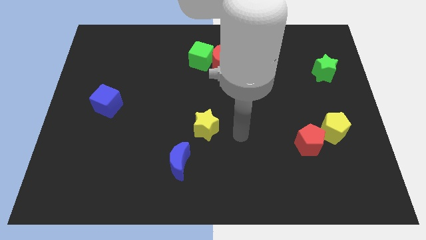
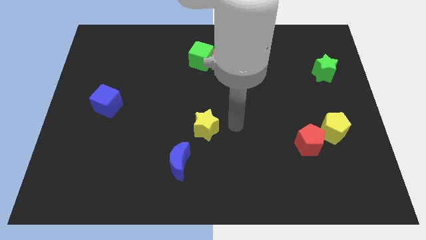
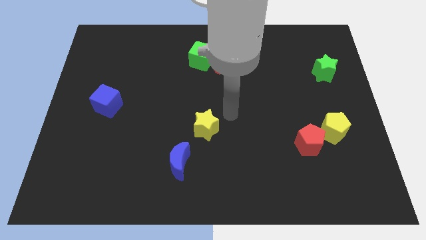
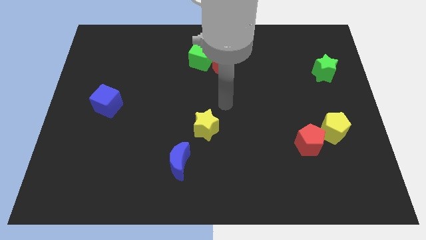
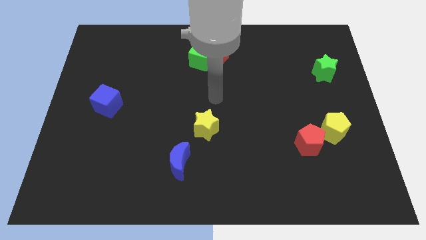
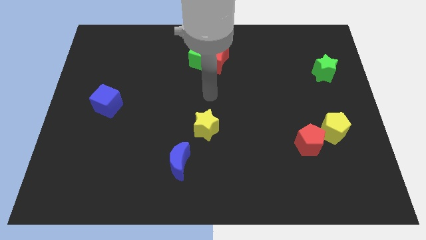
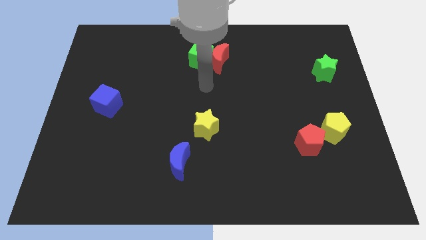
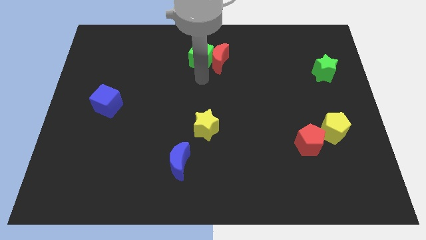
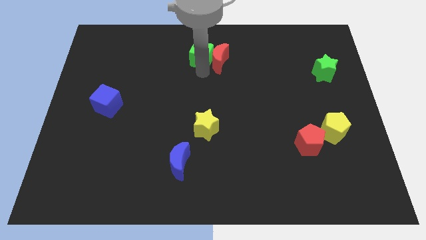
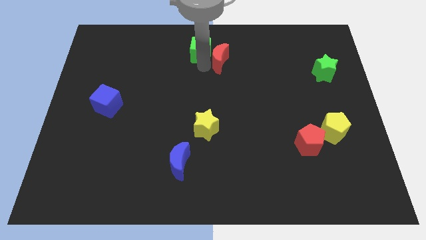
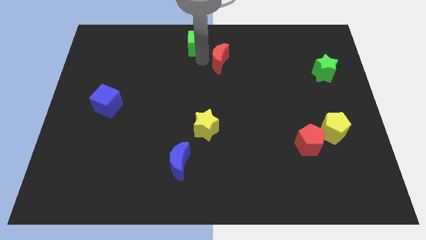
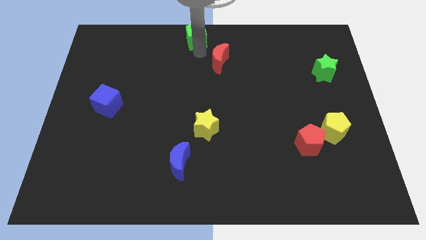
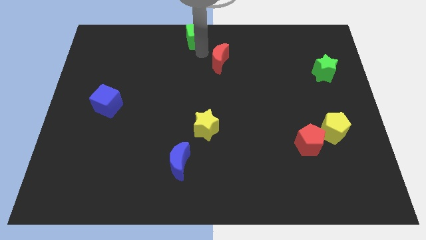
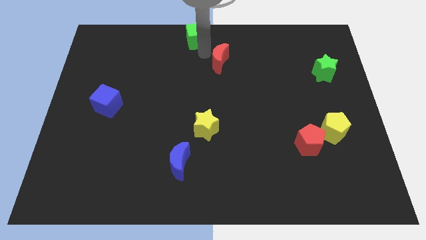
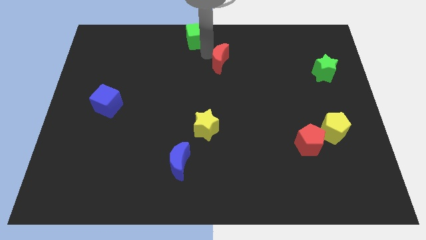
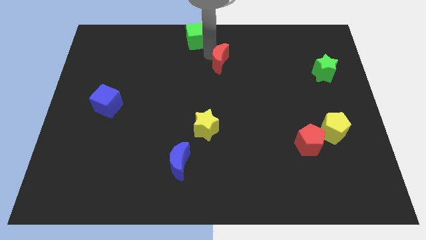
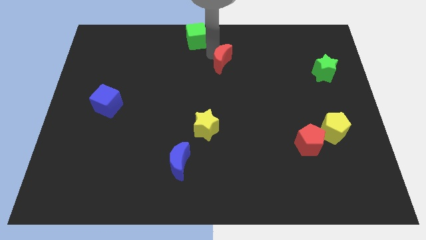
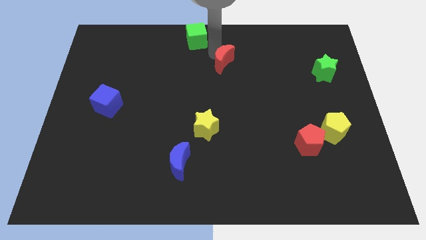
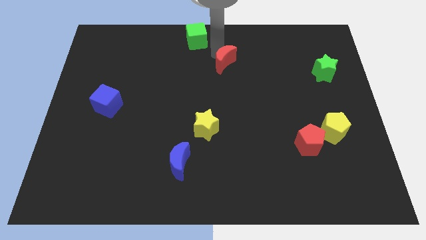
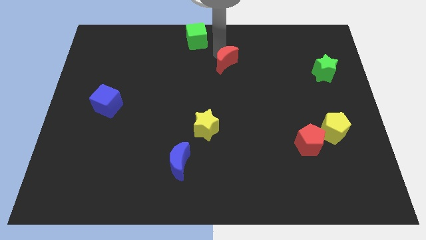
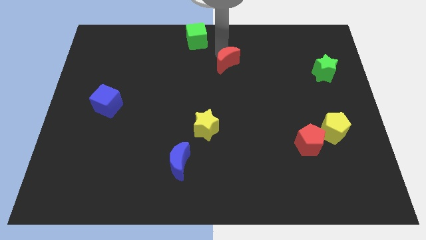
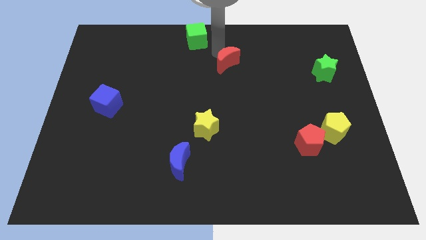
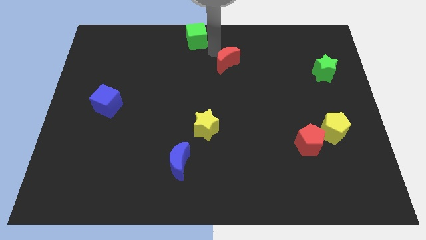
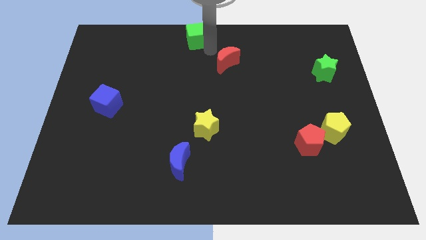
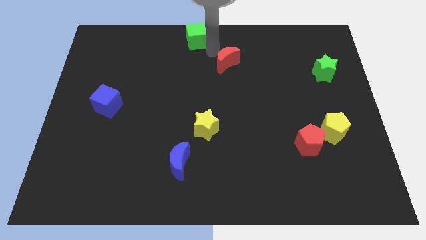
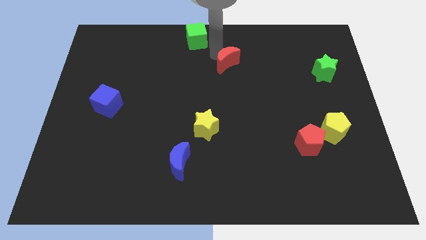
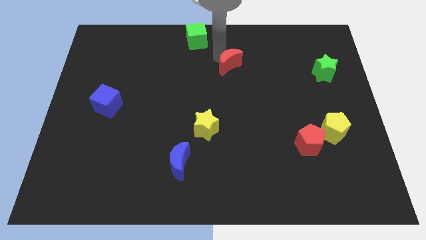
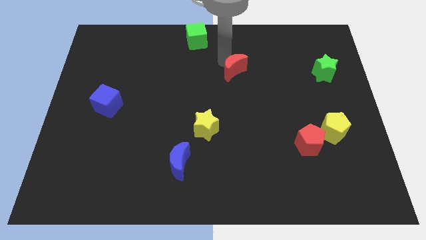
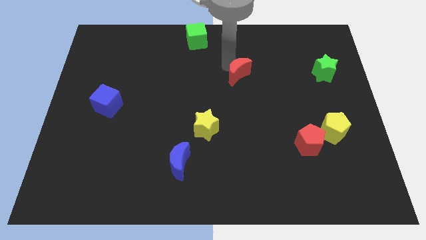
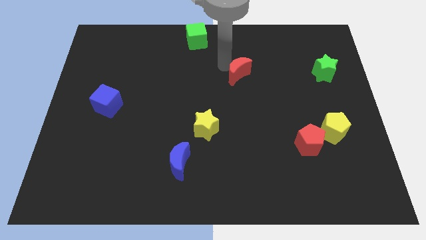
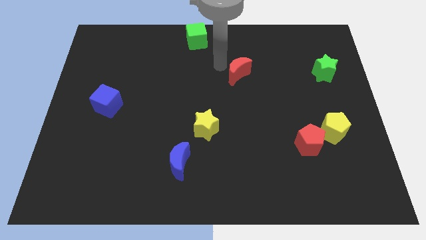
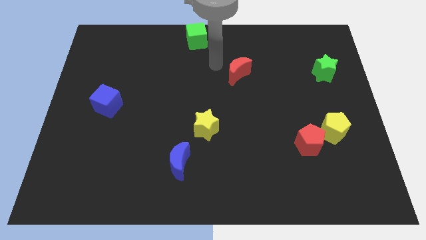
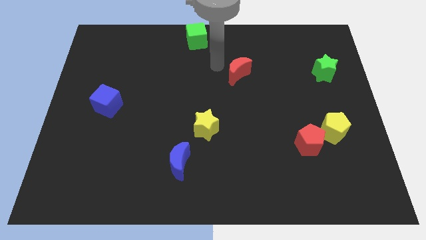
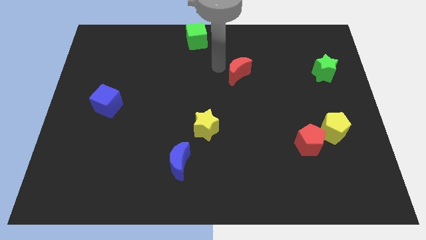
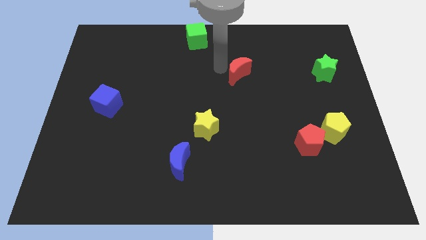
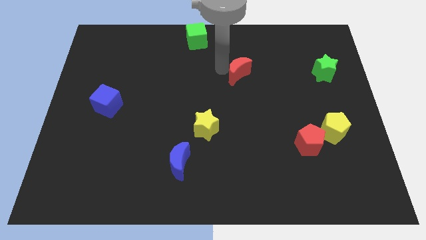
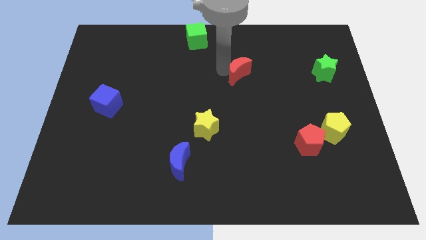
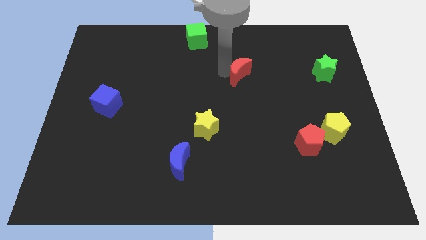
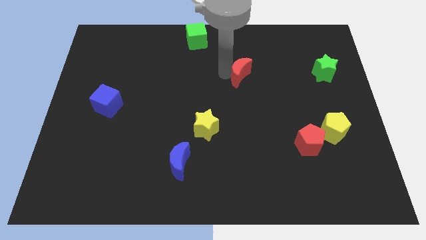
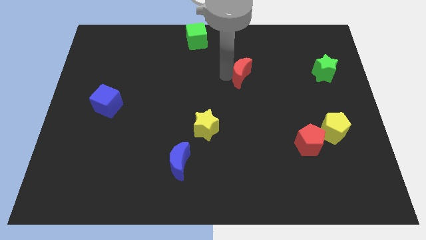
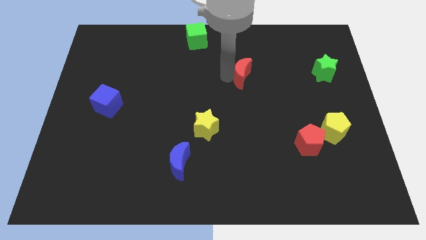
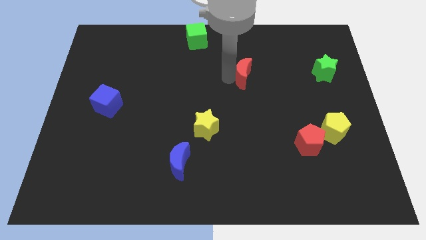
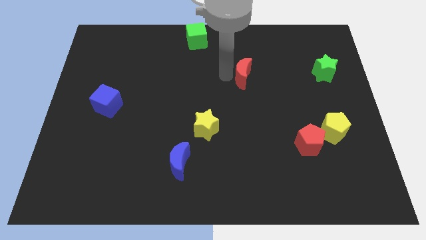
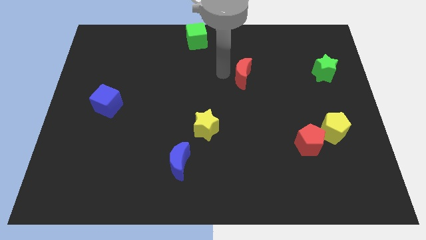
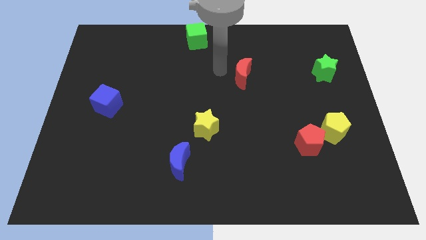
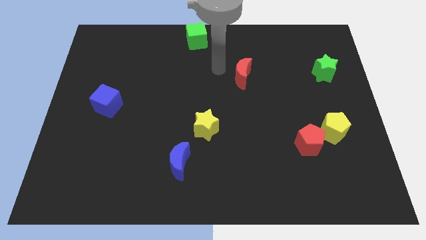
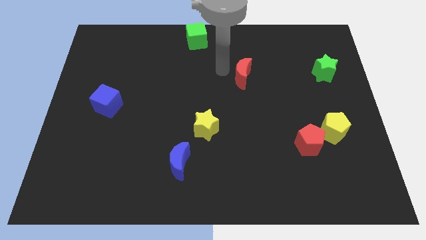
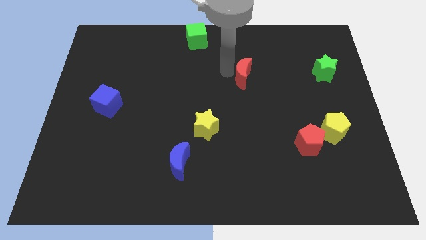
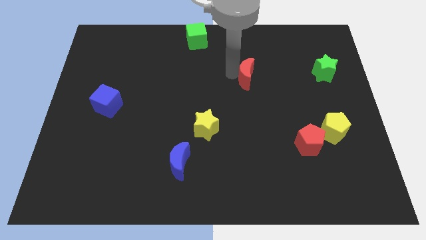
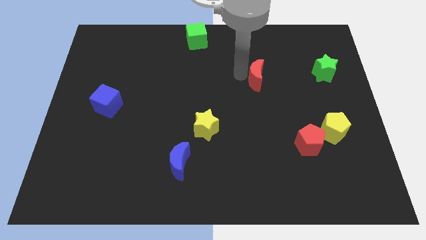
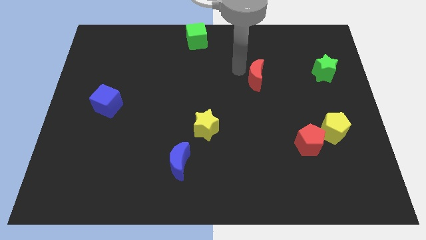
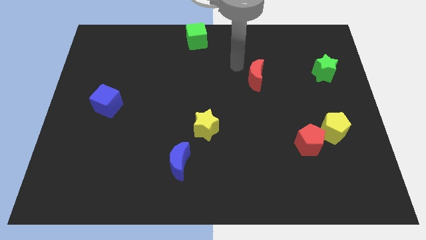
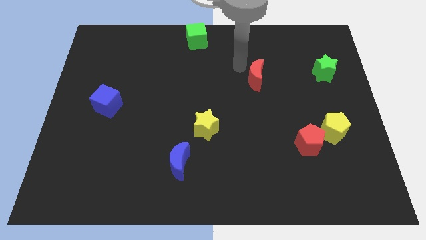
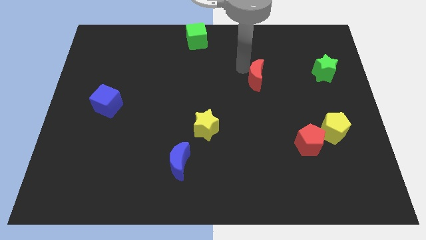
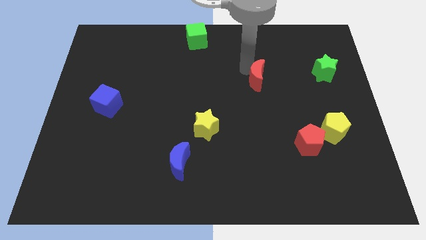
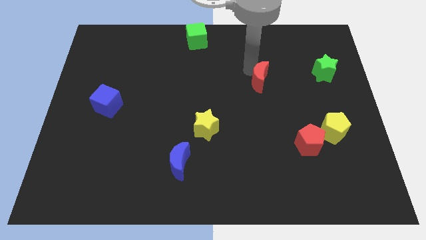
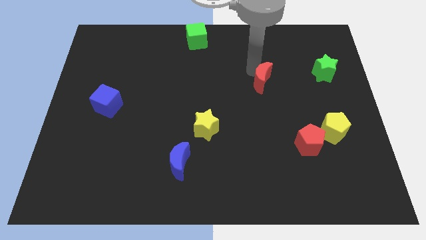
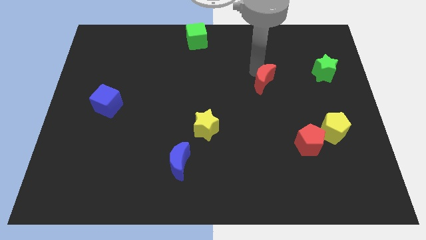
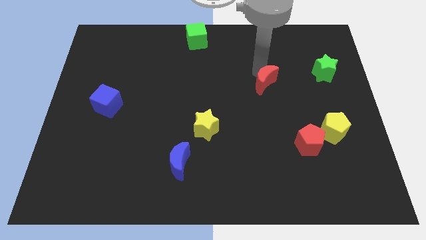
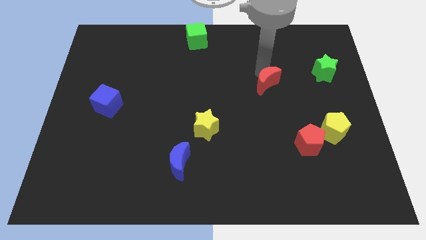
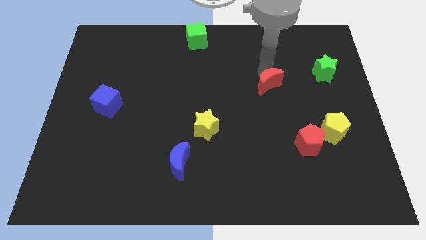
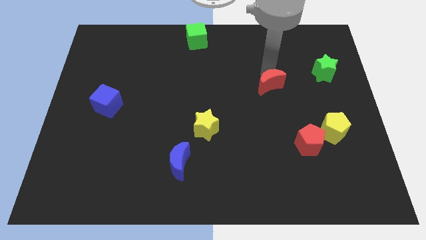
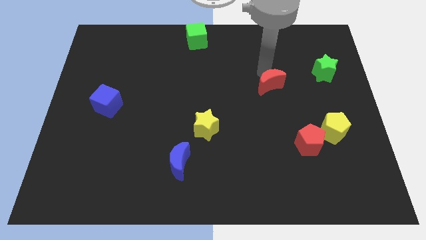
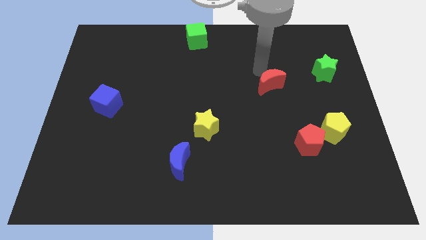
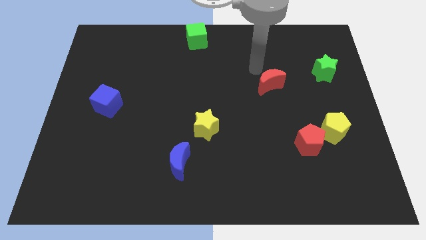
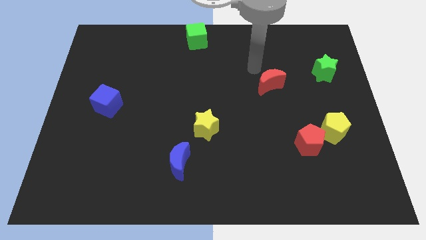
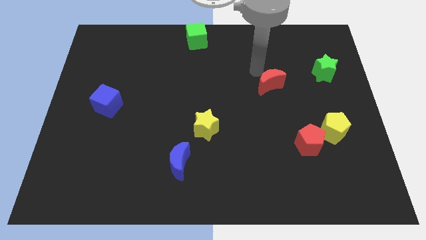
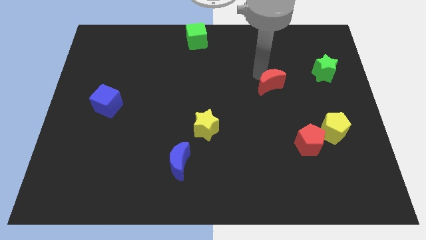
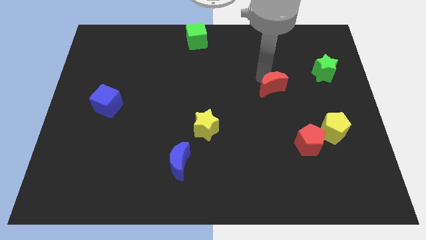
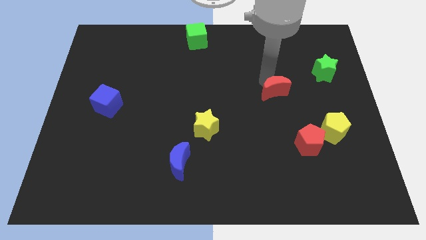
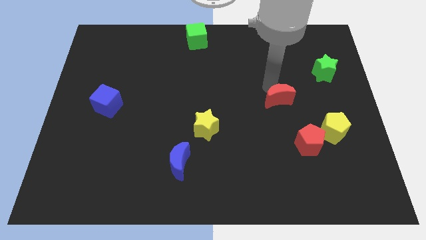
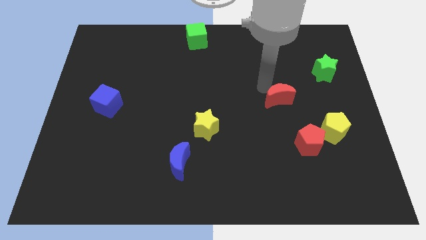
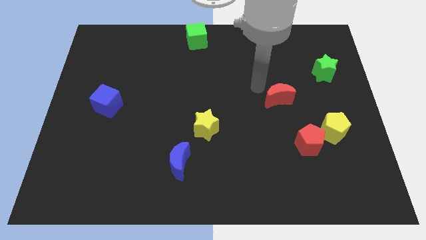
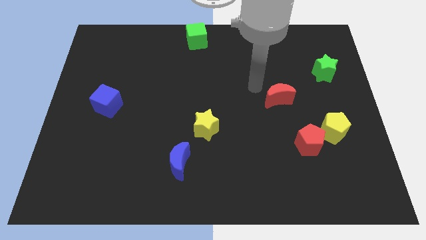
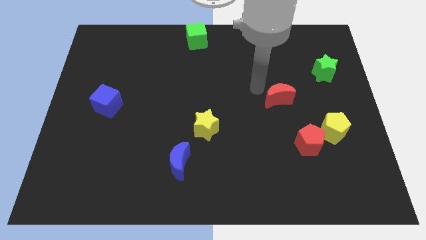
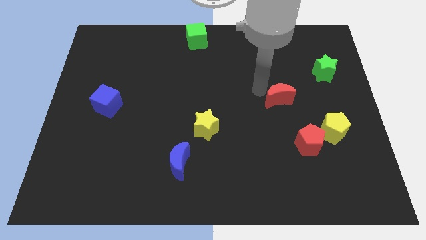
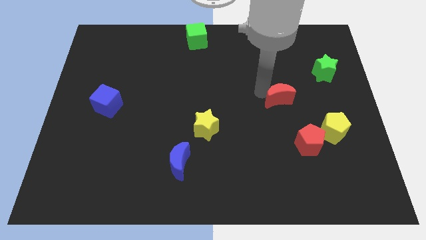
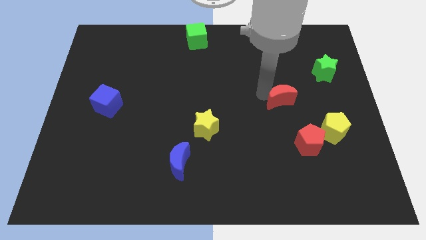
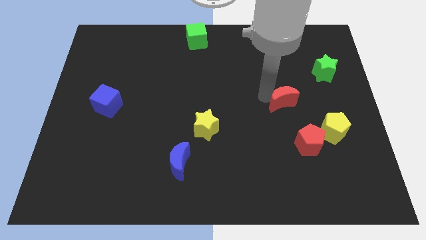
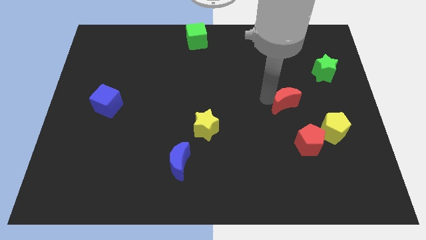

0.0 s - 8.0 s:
put the red moon diagonally up and to the left of the yellow pentagon
